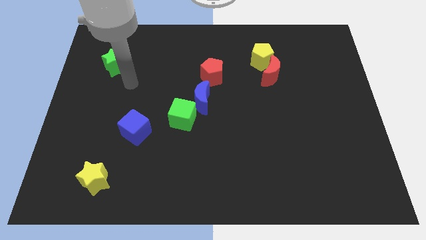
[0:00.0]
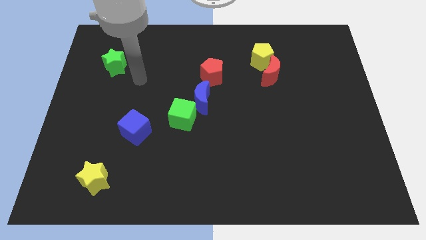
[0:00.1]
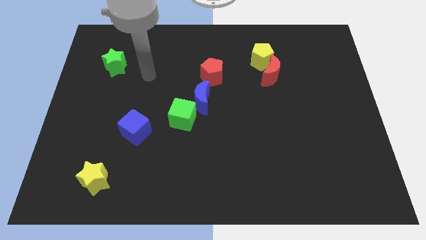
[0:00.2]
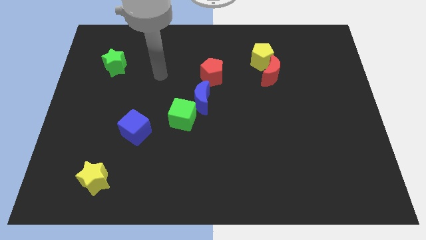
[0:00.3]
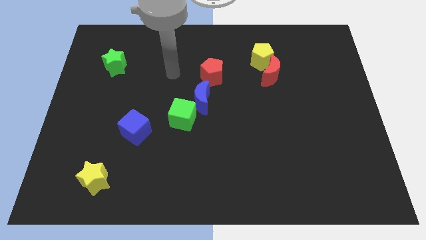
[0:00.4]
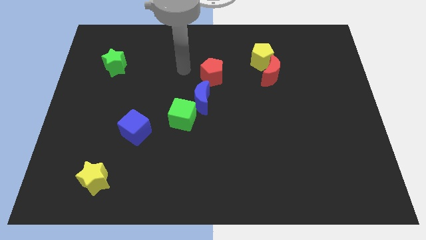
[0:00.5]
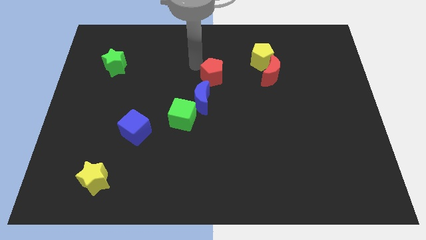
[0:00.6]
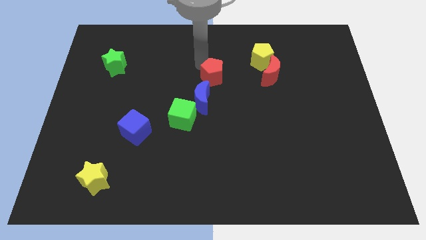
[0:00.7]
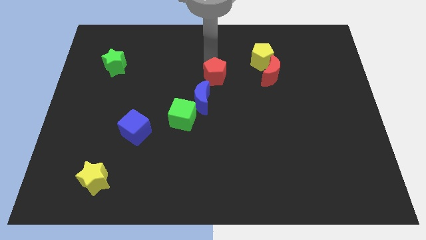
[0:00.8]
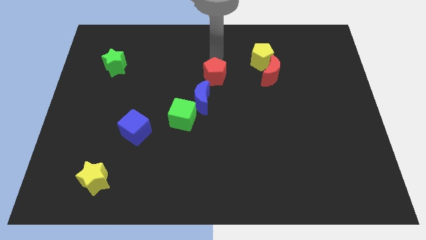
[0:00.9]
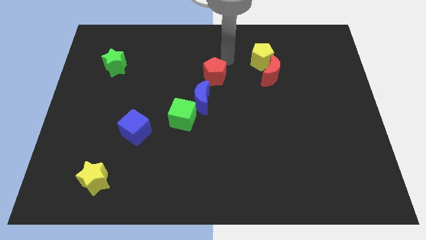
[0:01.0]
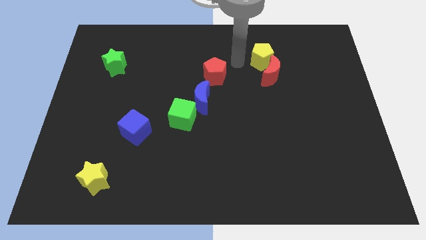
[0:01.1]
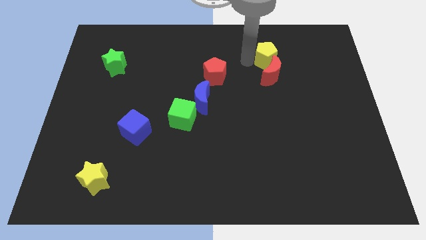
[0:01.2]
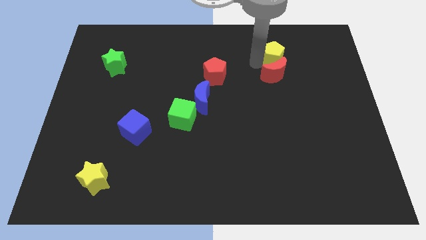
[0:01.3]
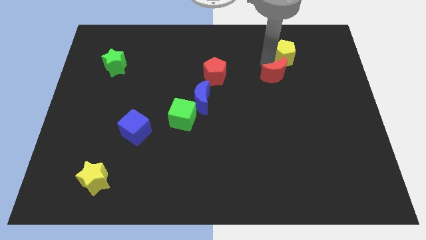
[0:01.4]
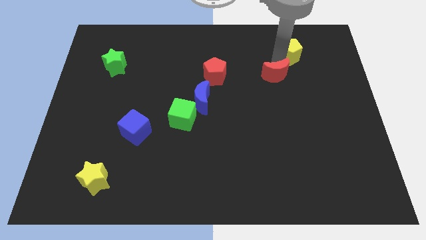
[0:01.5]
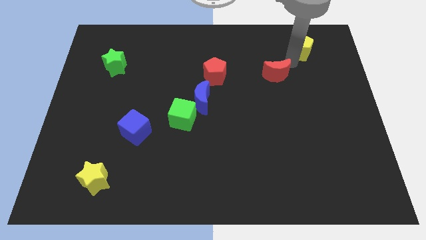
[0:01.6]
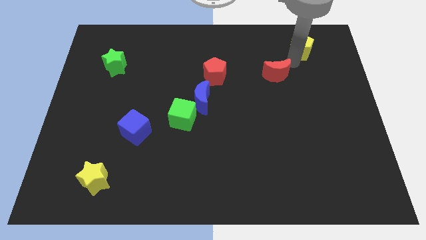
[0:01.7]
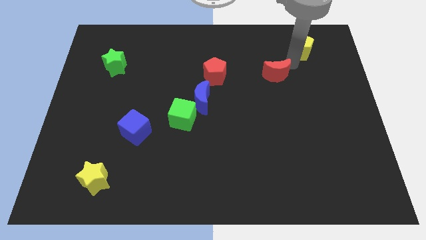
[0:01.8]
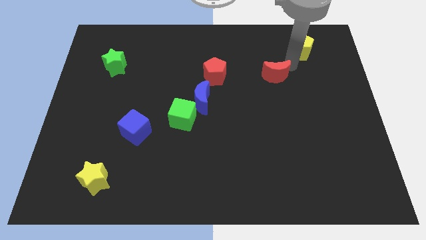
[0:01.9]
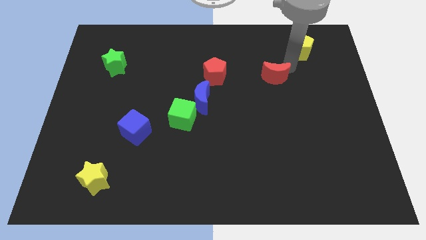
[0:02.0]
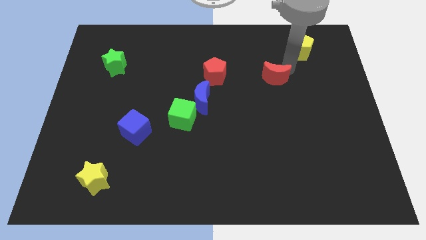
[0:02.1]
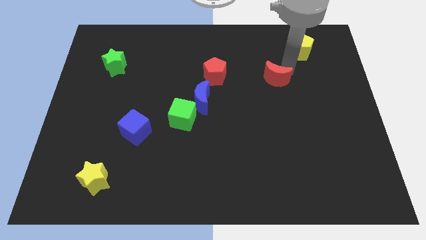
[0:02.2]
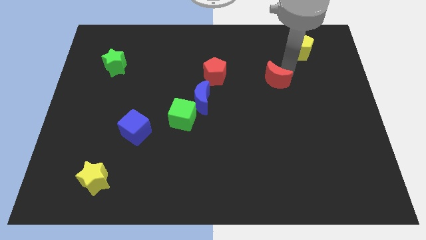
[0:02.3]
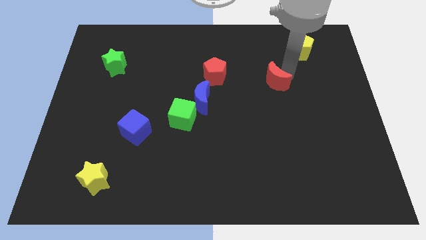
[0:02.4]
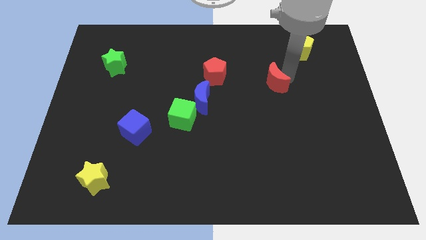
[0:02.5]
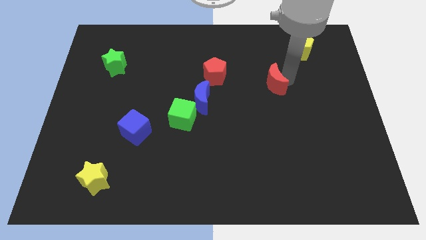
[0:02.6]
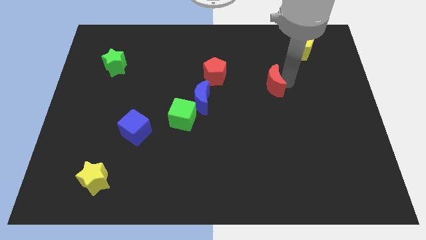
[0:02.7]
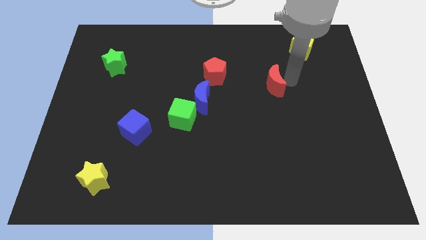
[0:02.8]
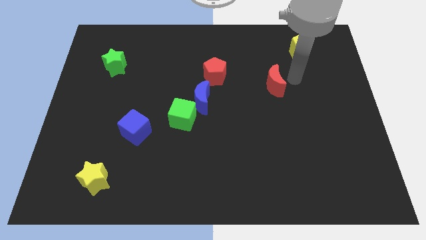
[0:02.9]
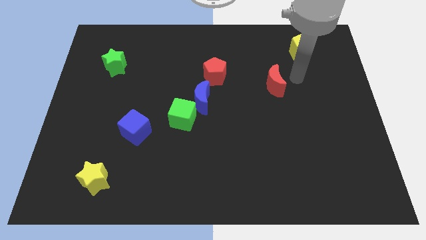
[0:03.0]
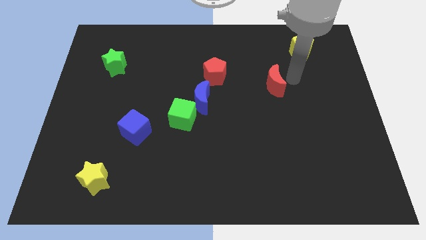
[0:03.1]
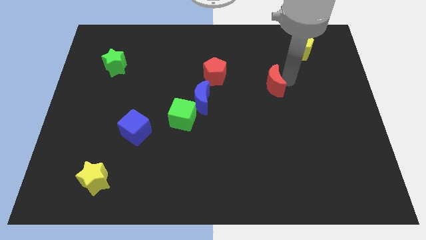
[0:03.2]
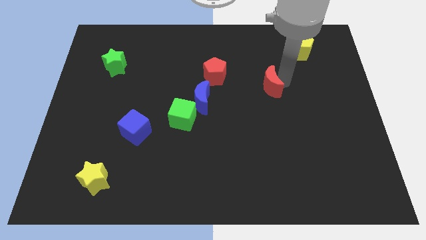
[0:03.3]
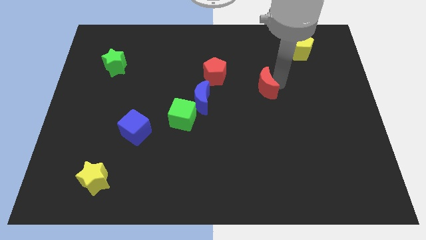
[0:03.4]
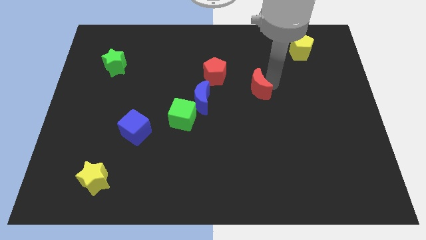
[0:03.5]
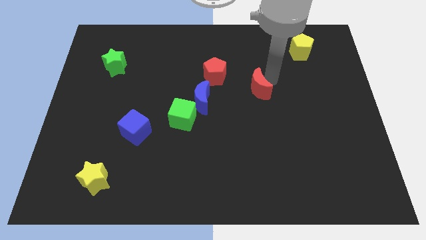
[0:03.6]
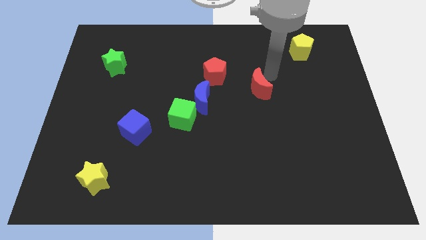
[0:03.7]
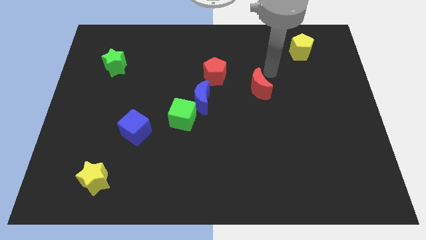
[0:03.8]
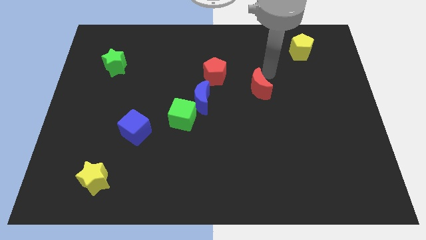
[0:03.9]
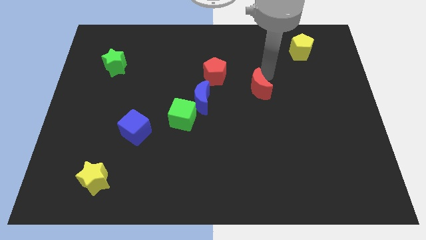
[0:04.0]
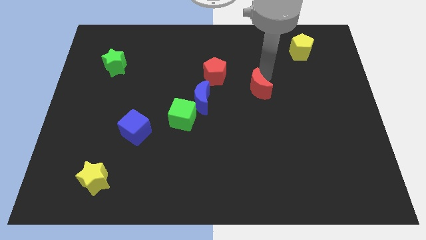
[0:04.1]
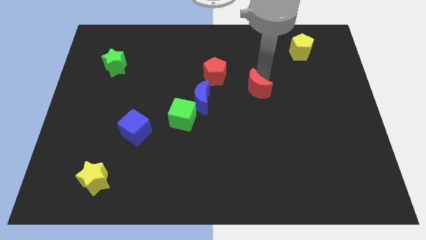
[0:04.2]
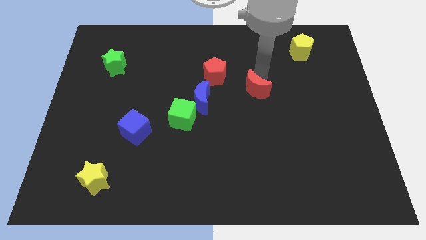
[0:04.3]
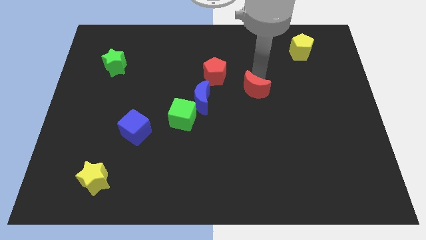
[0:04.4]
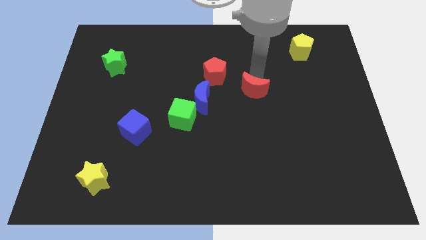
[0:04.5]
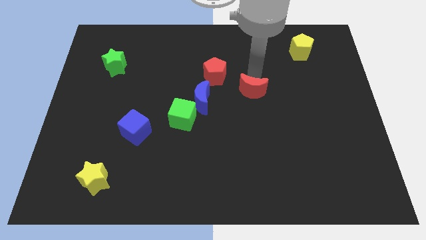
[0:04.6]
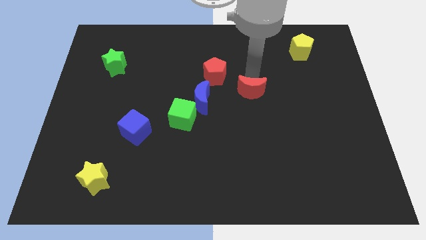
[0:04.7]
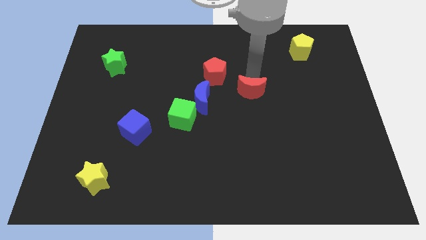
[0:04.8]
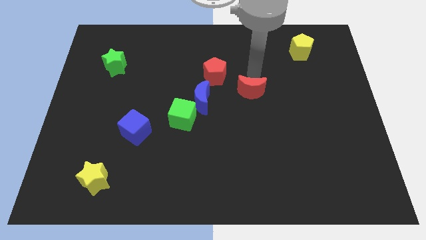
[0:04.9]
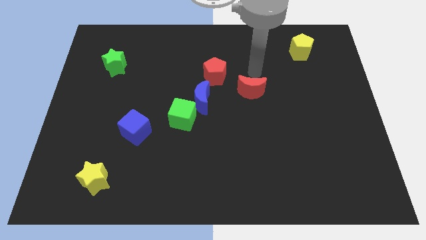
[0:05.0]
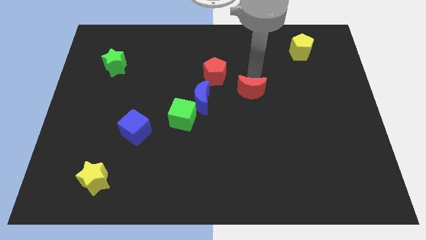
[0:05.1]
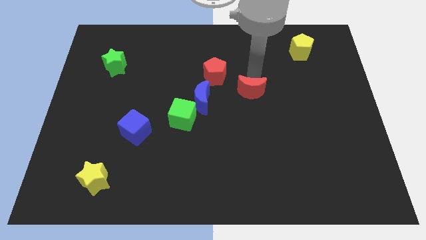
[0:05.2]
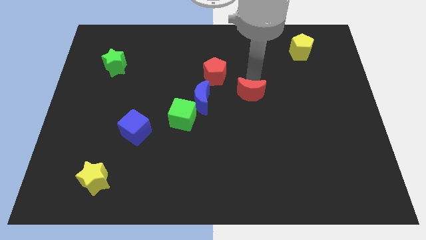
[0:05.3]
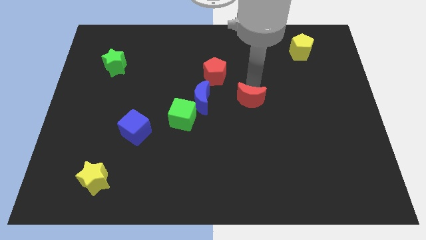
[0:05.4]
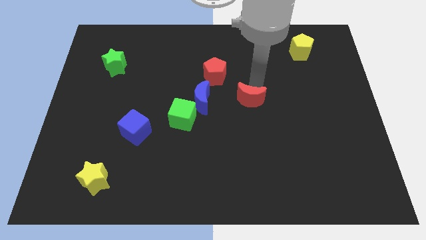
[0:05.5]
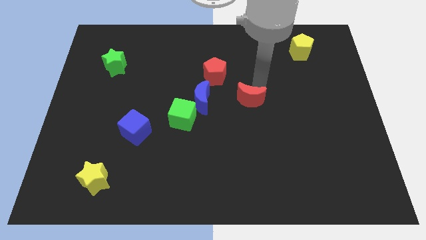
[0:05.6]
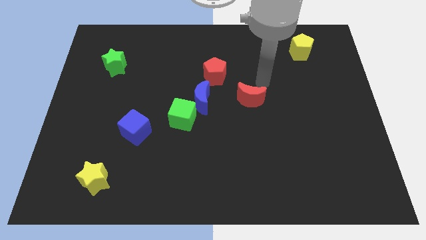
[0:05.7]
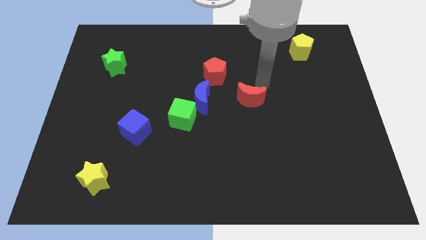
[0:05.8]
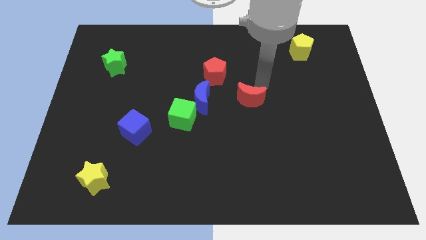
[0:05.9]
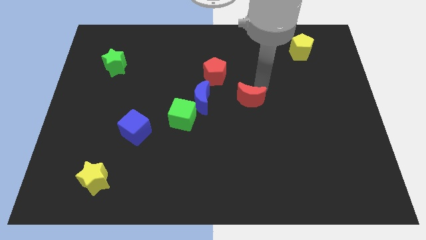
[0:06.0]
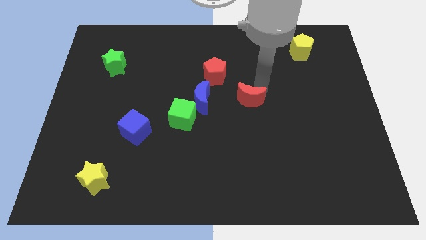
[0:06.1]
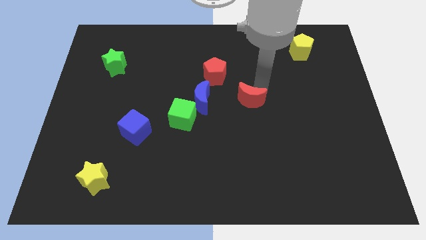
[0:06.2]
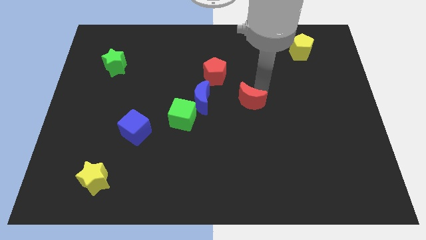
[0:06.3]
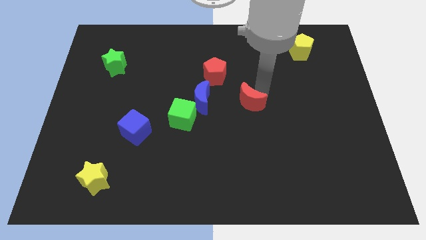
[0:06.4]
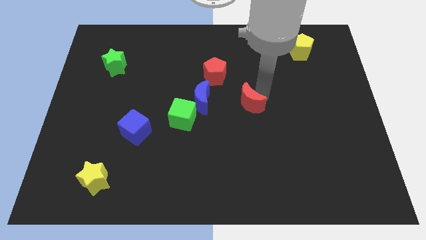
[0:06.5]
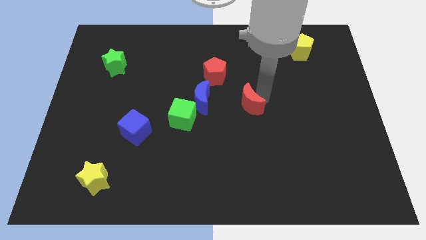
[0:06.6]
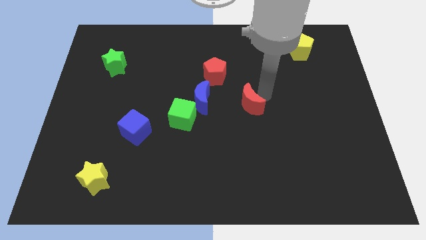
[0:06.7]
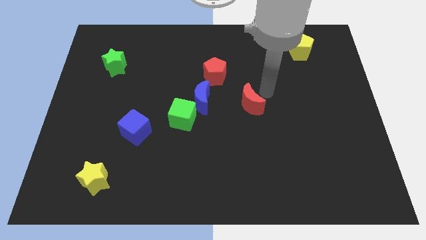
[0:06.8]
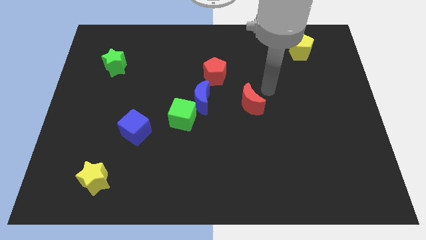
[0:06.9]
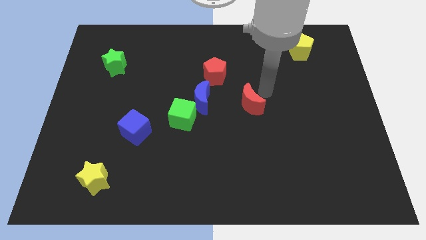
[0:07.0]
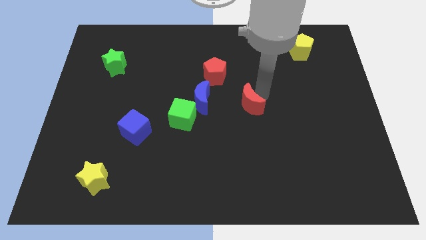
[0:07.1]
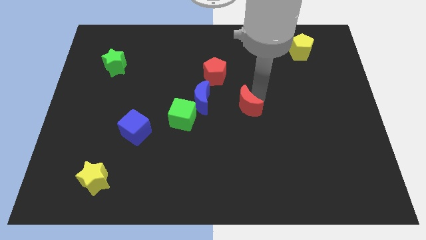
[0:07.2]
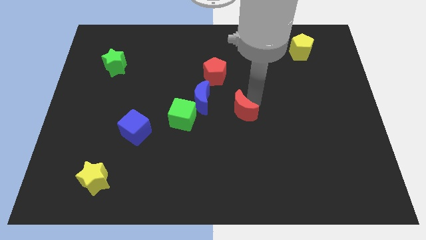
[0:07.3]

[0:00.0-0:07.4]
push the red moon to the bottom right of the blue moon

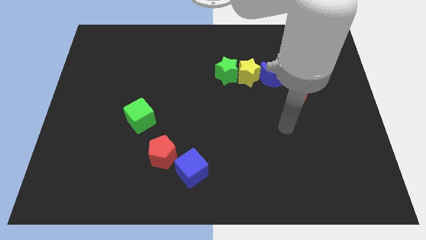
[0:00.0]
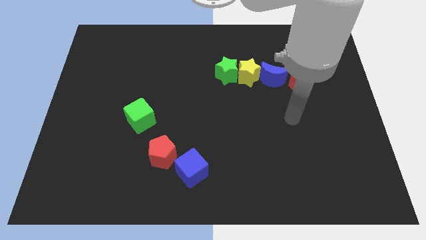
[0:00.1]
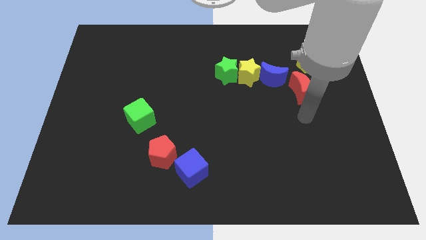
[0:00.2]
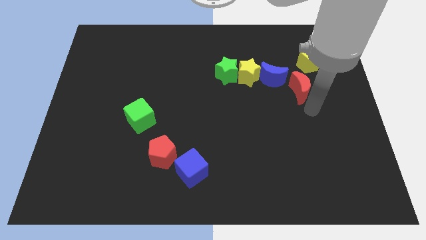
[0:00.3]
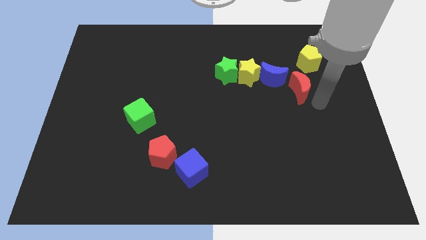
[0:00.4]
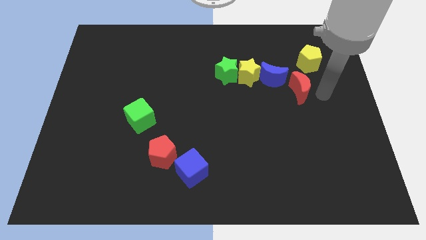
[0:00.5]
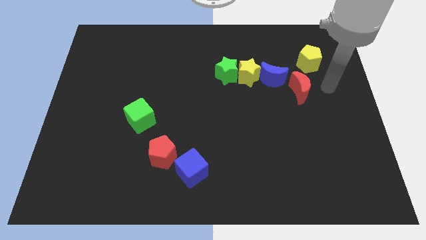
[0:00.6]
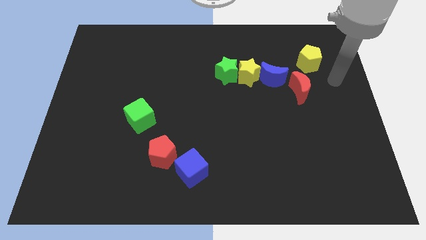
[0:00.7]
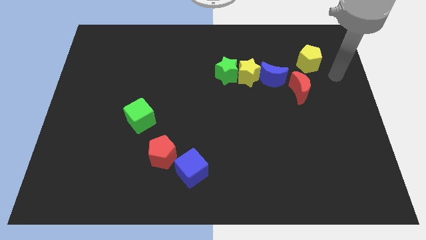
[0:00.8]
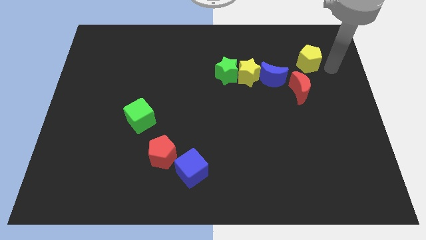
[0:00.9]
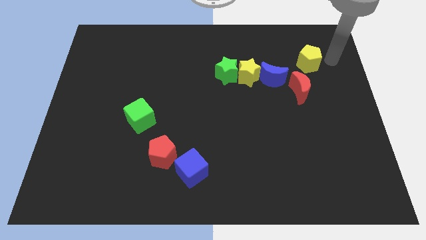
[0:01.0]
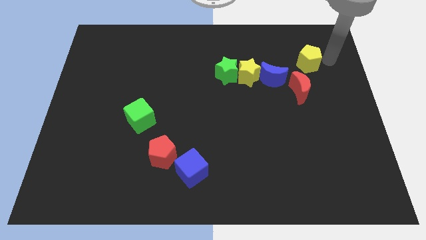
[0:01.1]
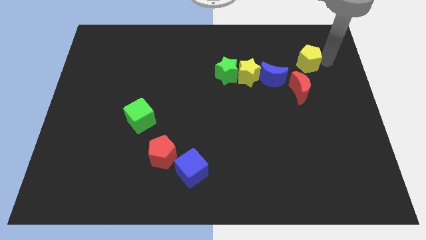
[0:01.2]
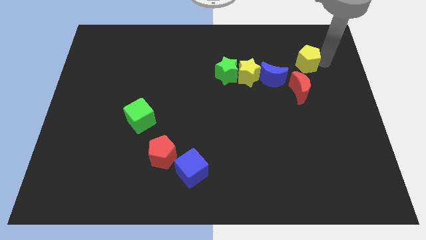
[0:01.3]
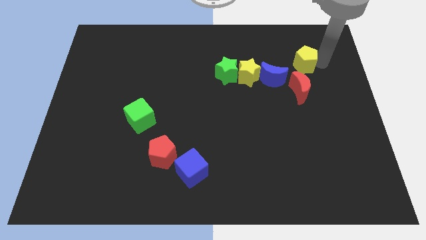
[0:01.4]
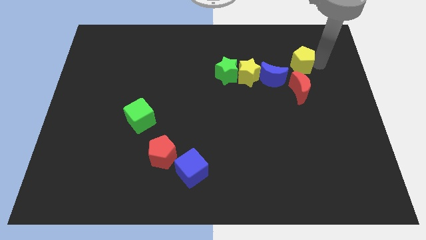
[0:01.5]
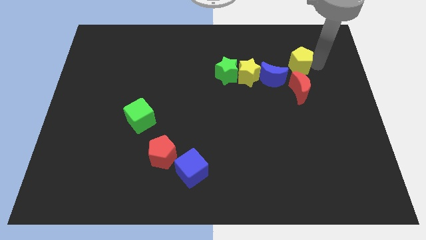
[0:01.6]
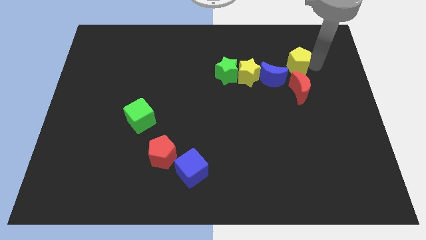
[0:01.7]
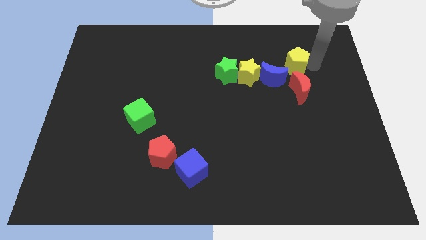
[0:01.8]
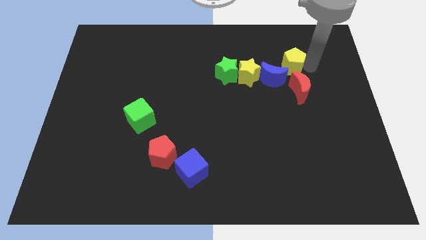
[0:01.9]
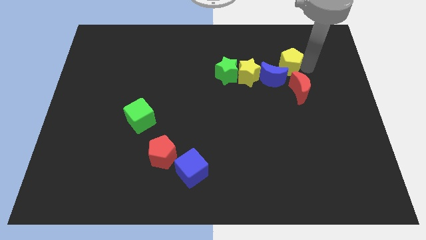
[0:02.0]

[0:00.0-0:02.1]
move the yellow pentagon diagonally up and to the left of the red moon
